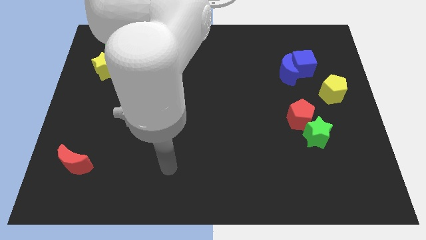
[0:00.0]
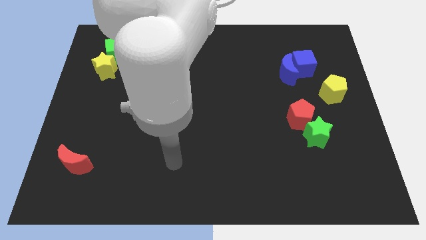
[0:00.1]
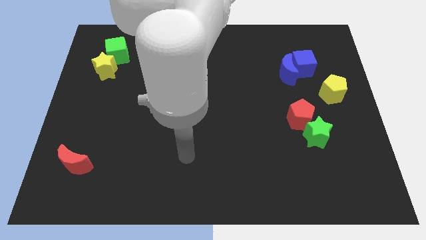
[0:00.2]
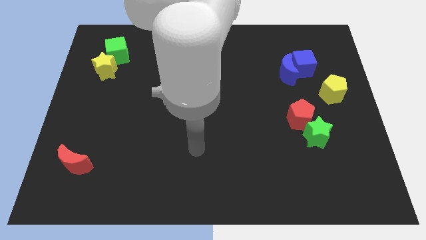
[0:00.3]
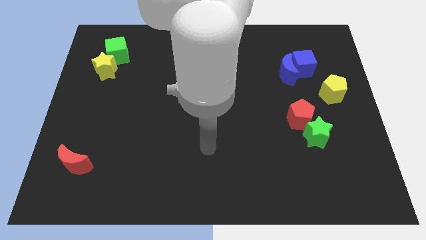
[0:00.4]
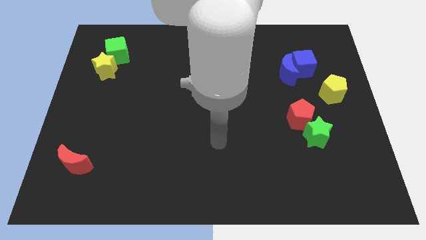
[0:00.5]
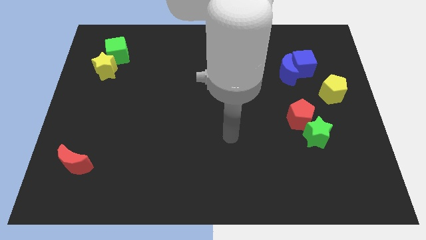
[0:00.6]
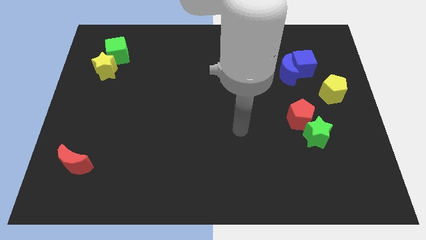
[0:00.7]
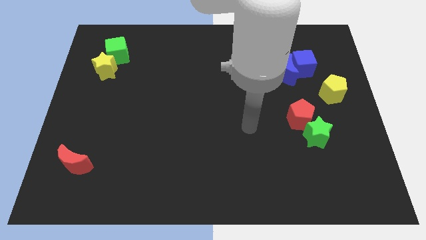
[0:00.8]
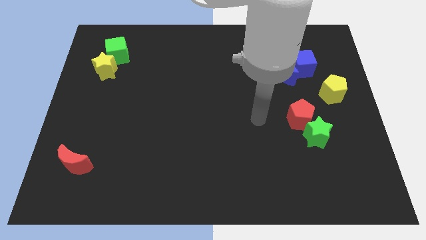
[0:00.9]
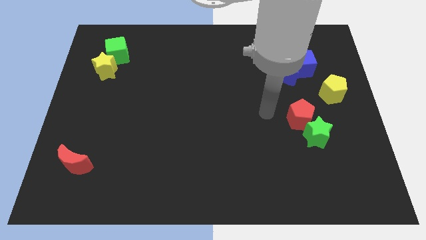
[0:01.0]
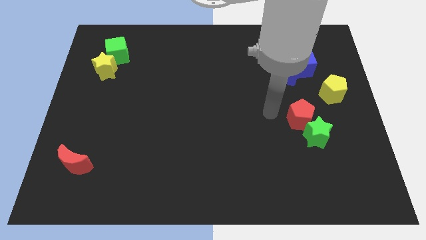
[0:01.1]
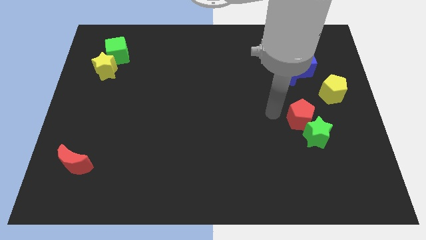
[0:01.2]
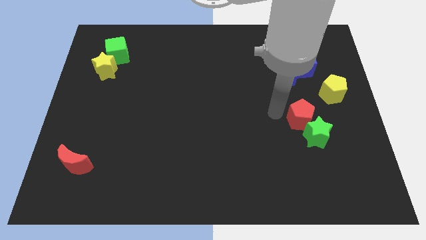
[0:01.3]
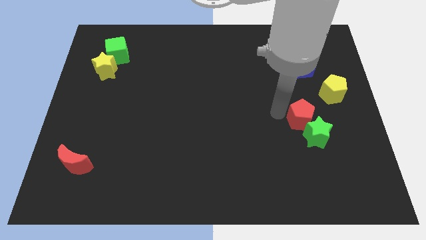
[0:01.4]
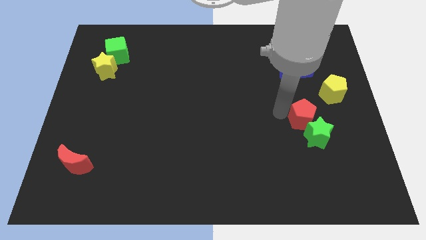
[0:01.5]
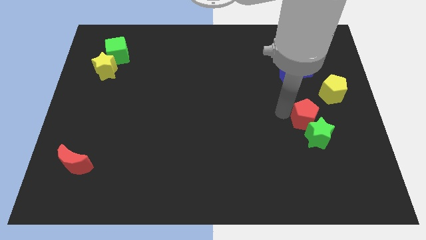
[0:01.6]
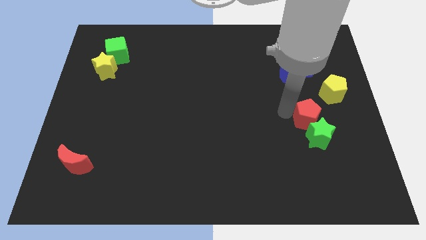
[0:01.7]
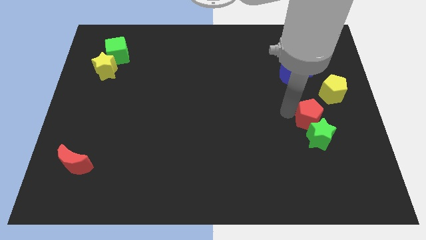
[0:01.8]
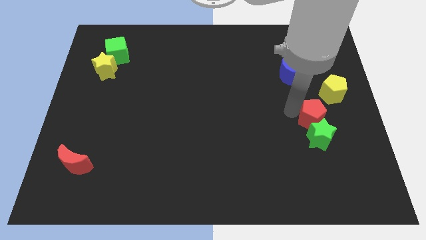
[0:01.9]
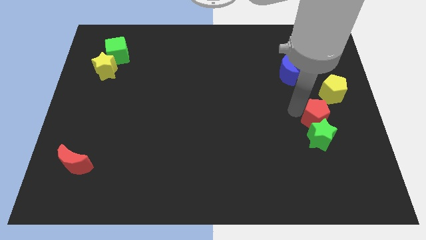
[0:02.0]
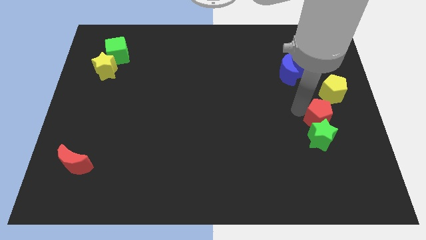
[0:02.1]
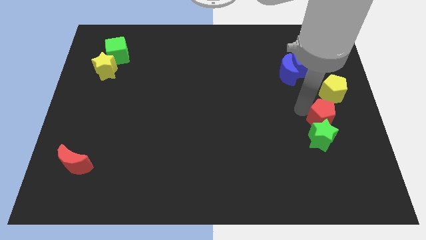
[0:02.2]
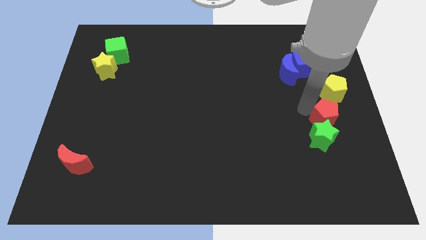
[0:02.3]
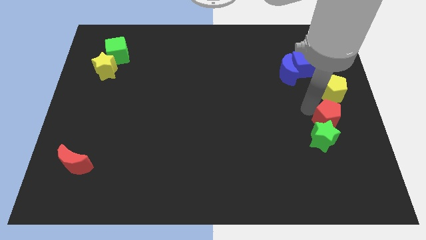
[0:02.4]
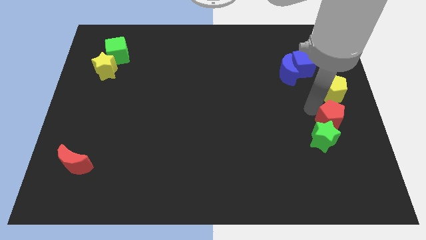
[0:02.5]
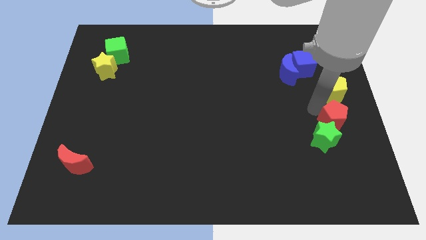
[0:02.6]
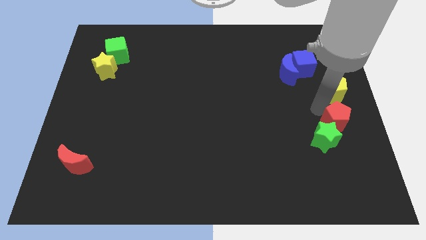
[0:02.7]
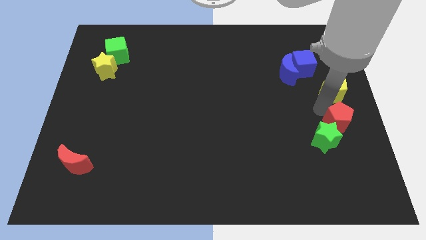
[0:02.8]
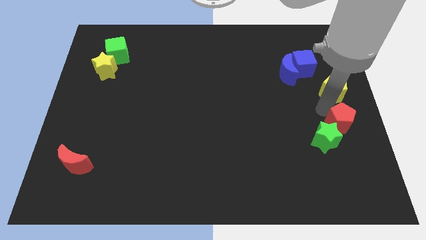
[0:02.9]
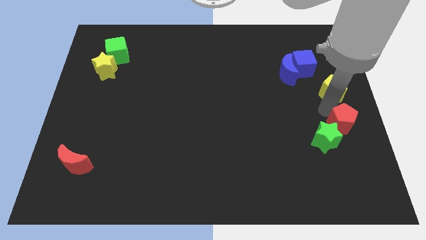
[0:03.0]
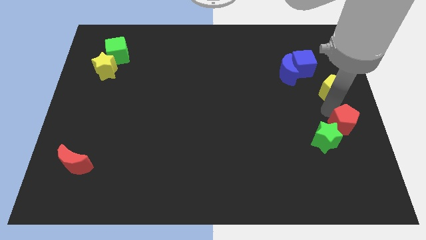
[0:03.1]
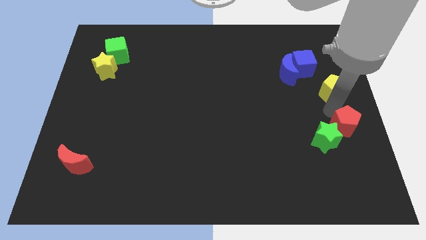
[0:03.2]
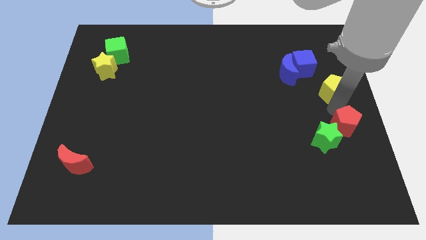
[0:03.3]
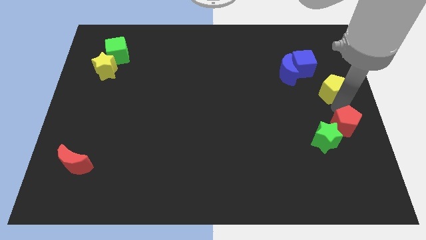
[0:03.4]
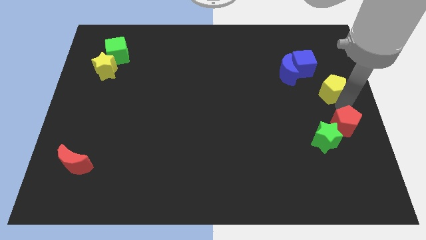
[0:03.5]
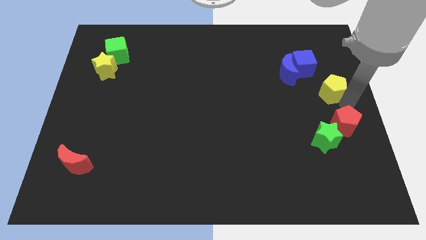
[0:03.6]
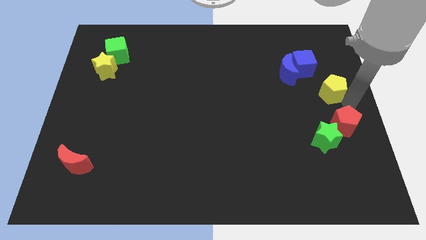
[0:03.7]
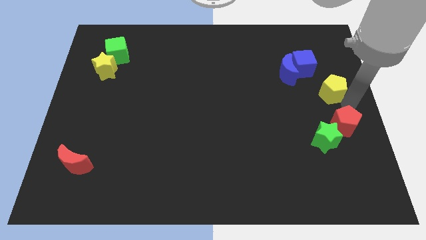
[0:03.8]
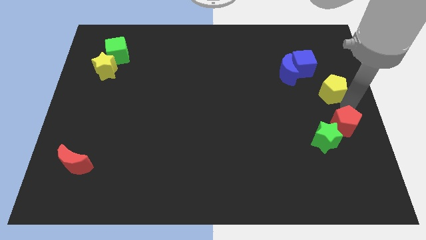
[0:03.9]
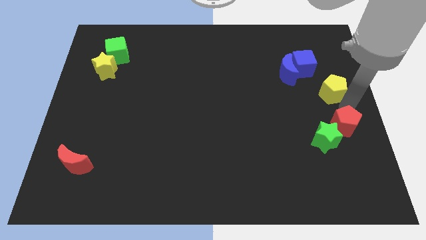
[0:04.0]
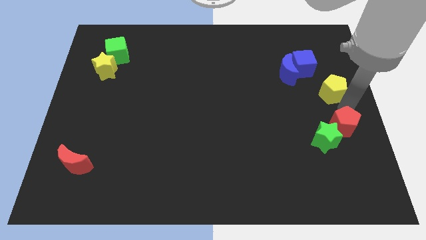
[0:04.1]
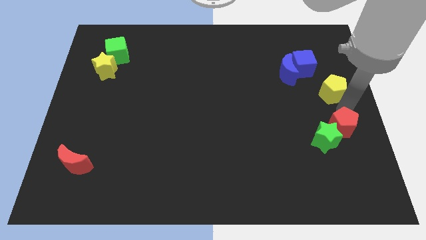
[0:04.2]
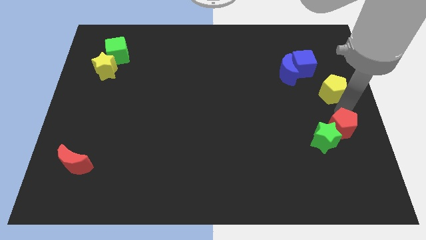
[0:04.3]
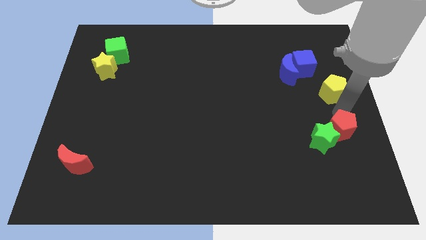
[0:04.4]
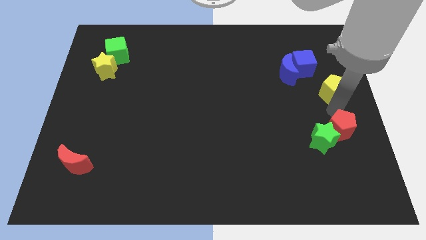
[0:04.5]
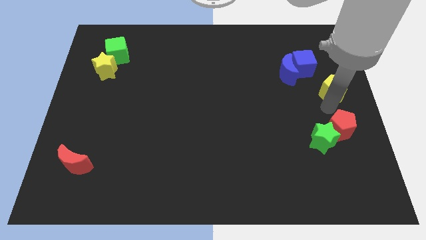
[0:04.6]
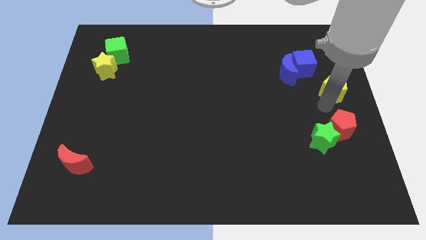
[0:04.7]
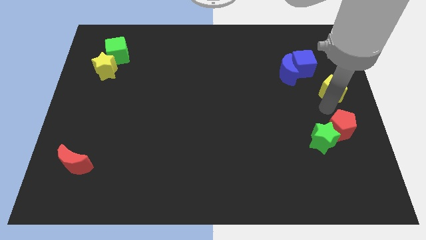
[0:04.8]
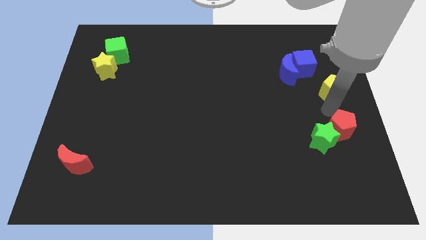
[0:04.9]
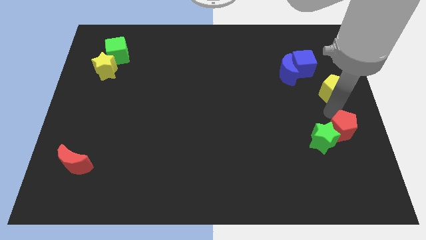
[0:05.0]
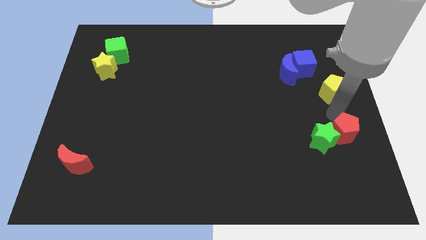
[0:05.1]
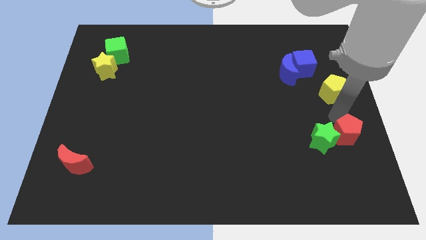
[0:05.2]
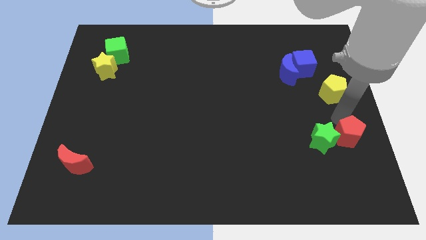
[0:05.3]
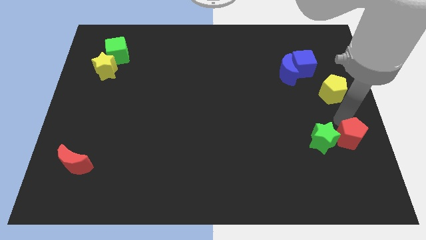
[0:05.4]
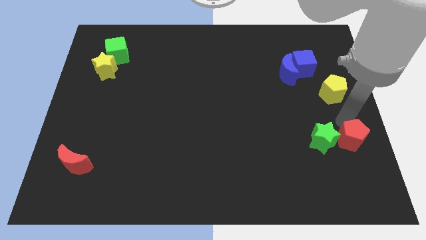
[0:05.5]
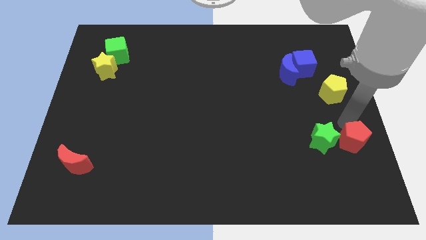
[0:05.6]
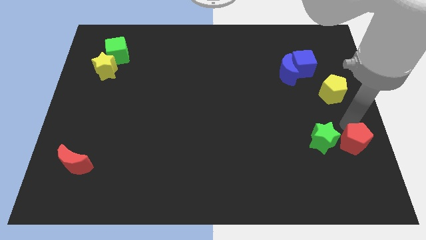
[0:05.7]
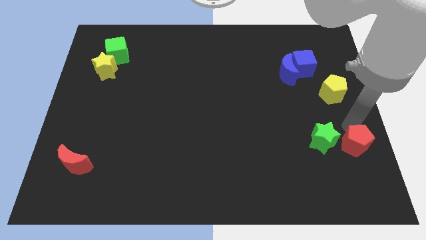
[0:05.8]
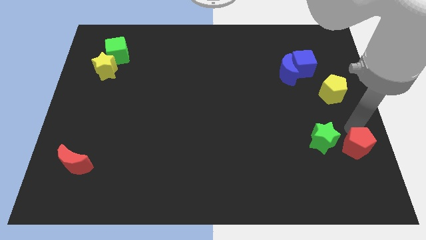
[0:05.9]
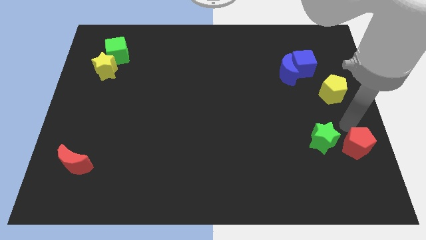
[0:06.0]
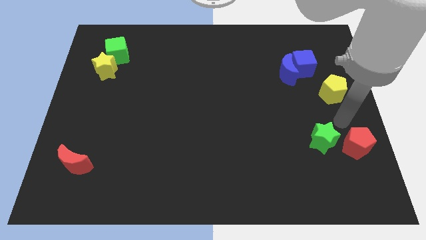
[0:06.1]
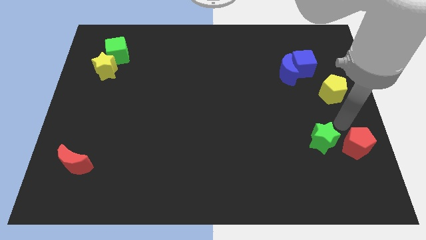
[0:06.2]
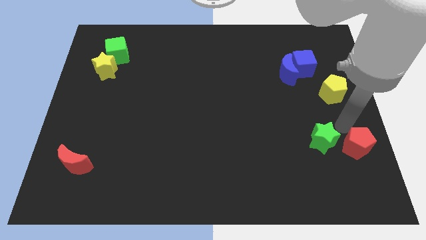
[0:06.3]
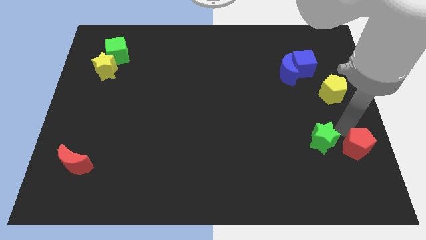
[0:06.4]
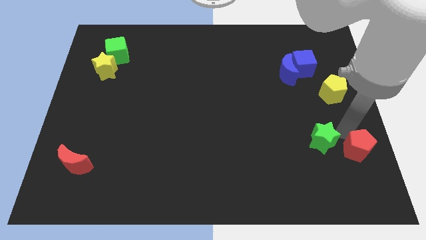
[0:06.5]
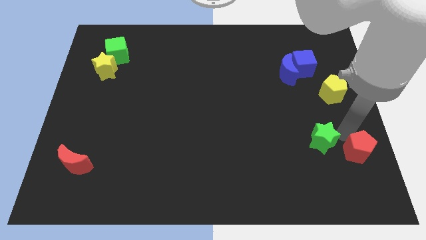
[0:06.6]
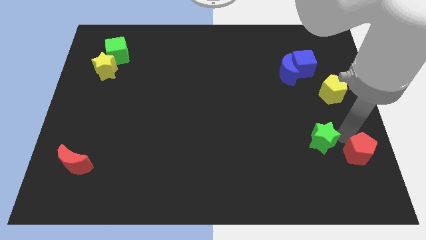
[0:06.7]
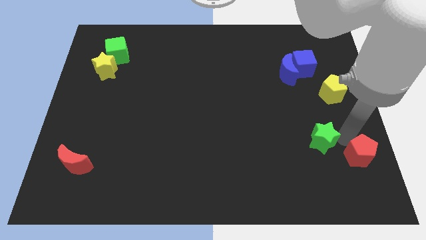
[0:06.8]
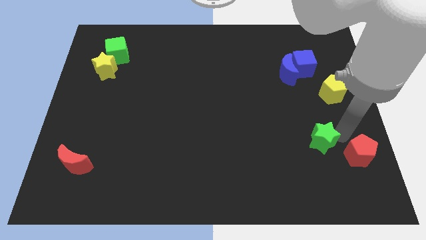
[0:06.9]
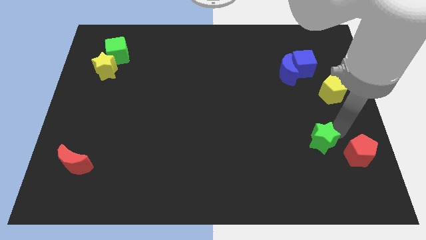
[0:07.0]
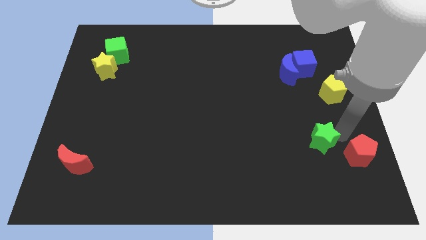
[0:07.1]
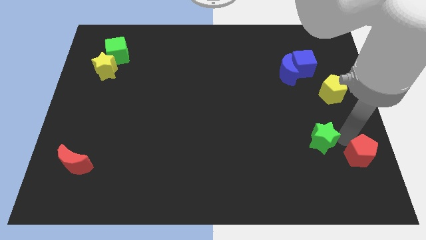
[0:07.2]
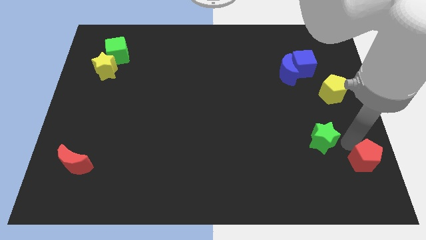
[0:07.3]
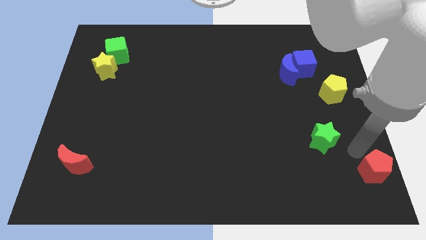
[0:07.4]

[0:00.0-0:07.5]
put the red pentagon to the bottom right corner

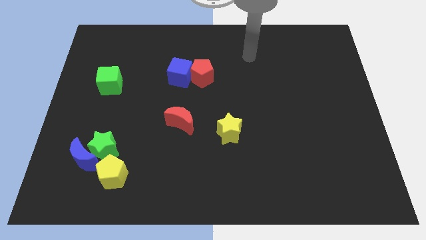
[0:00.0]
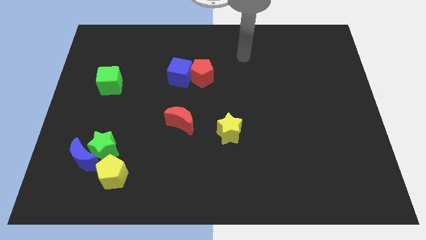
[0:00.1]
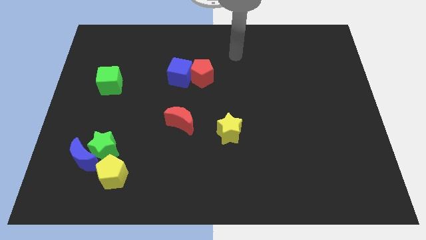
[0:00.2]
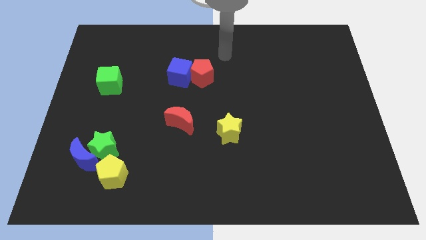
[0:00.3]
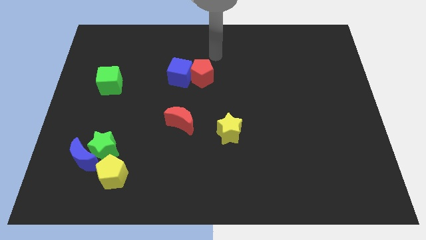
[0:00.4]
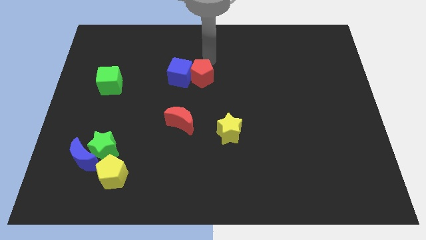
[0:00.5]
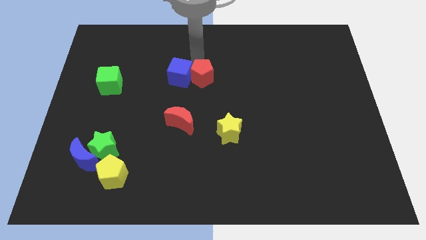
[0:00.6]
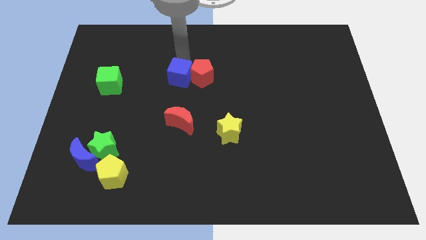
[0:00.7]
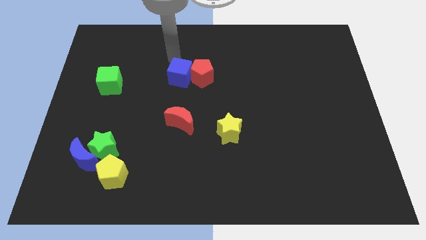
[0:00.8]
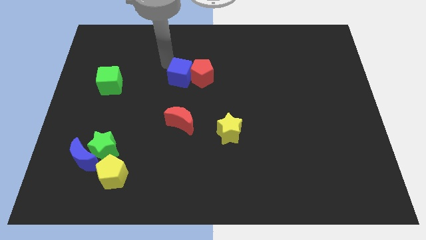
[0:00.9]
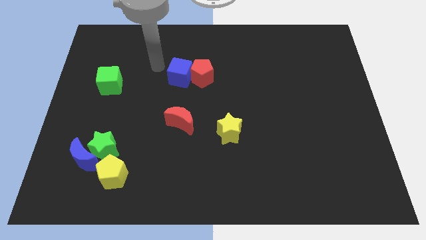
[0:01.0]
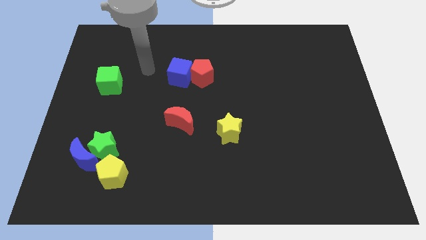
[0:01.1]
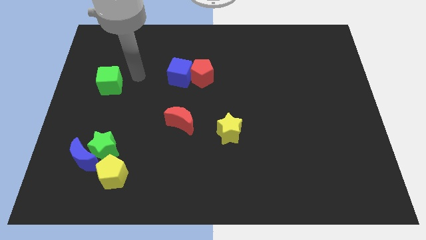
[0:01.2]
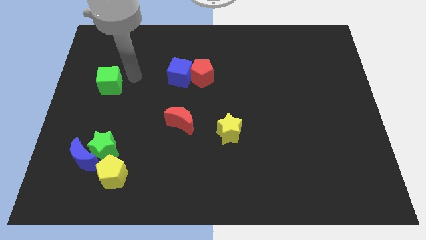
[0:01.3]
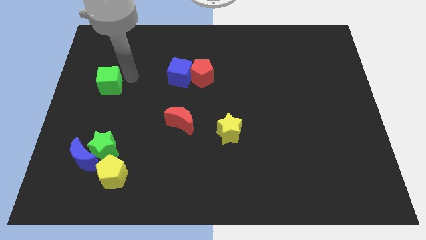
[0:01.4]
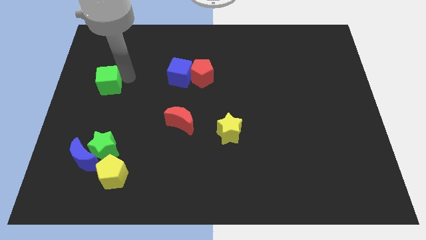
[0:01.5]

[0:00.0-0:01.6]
slide the green cube to the left side of the board
